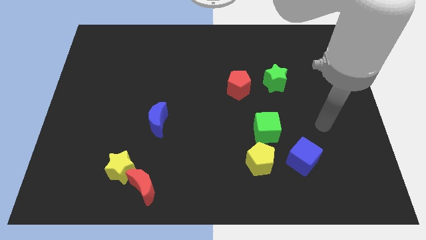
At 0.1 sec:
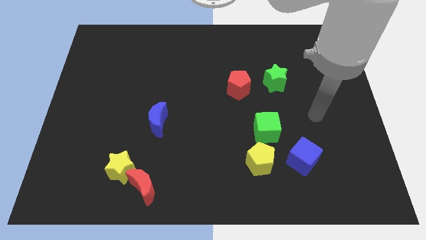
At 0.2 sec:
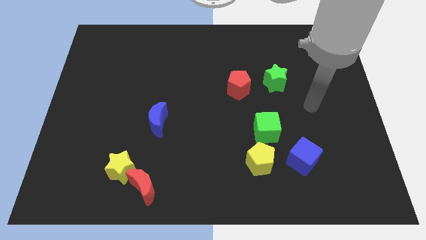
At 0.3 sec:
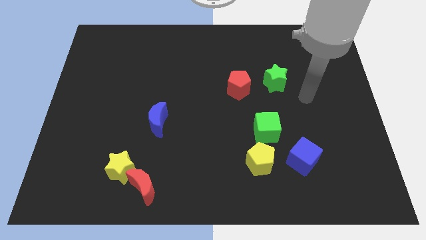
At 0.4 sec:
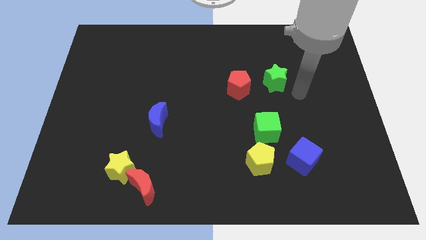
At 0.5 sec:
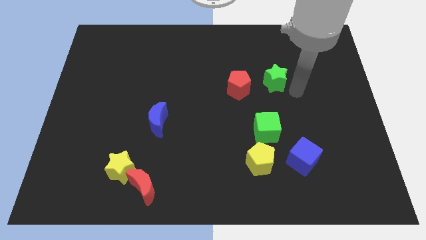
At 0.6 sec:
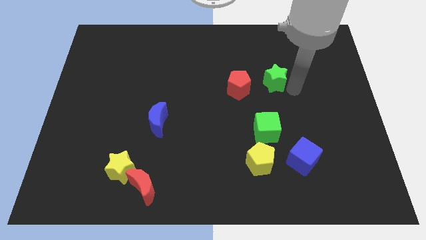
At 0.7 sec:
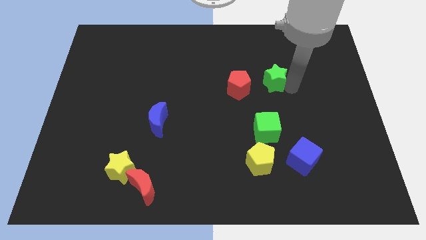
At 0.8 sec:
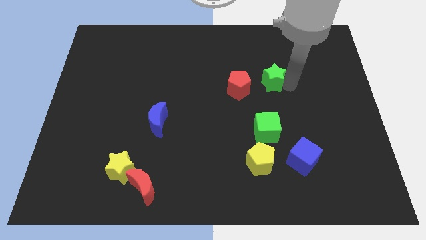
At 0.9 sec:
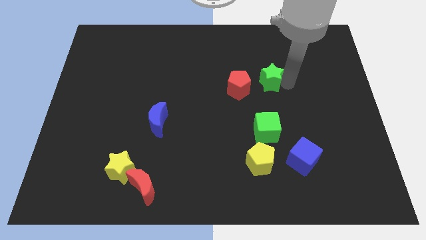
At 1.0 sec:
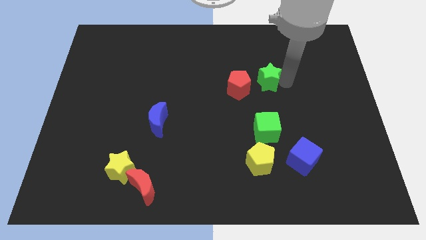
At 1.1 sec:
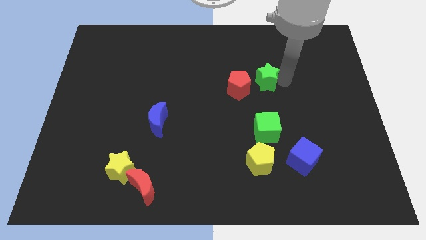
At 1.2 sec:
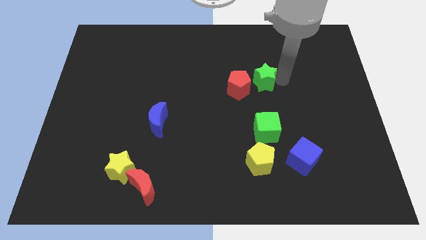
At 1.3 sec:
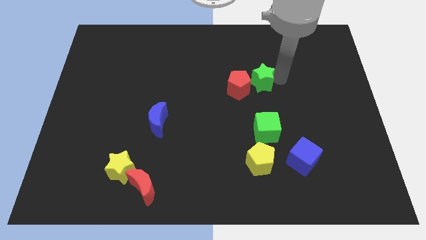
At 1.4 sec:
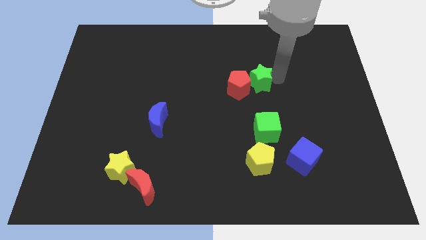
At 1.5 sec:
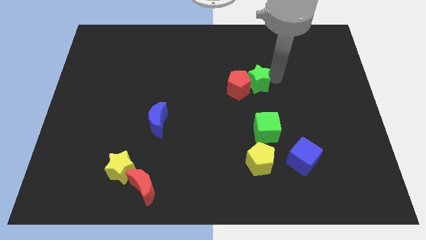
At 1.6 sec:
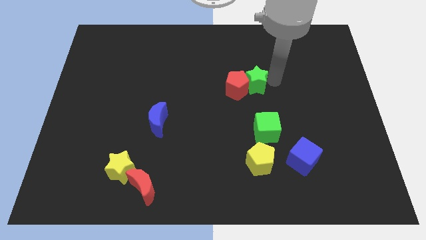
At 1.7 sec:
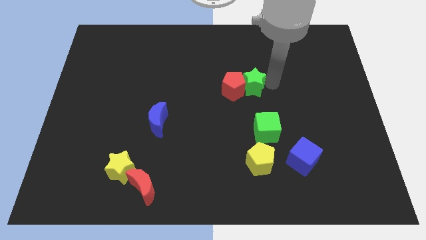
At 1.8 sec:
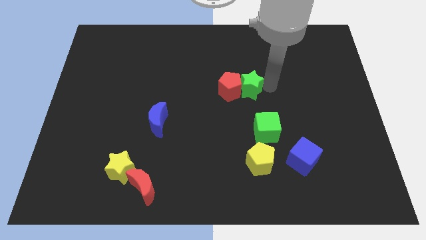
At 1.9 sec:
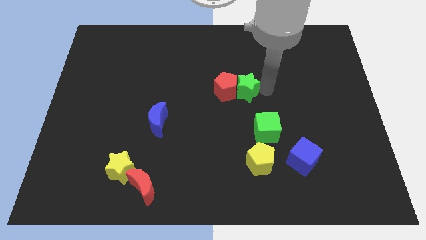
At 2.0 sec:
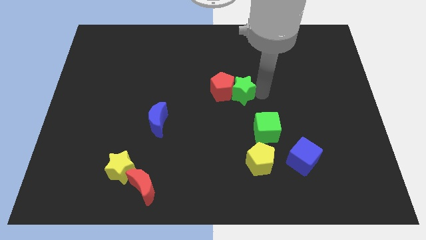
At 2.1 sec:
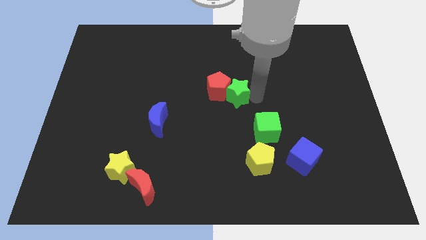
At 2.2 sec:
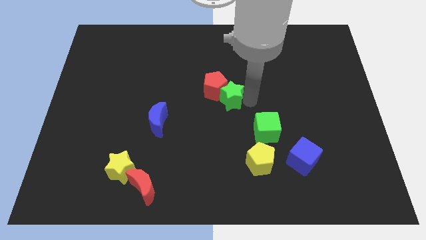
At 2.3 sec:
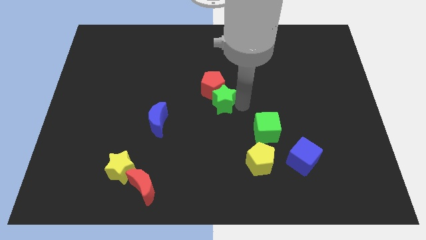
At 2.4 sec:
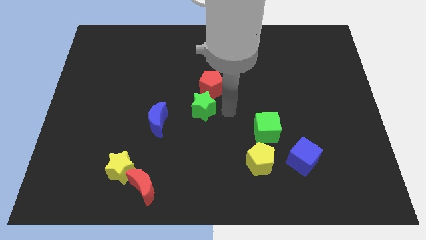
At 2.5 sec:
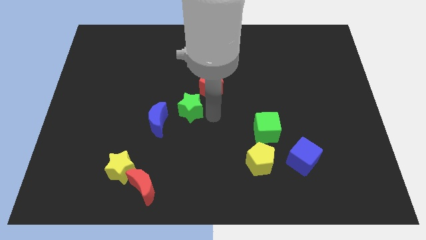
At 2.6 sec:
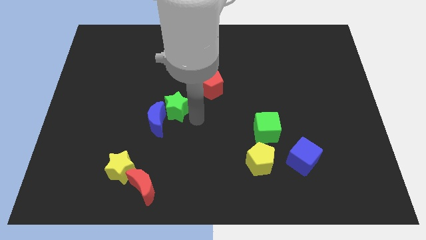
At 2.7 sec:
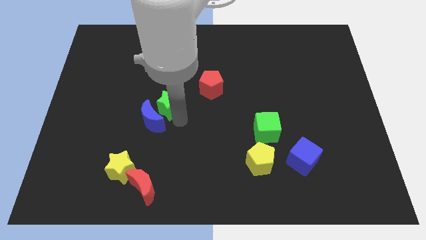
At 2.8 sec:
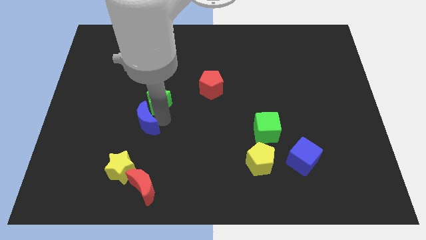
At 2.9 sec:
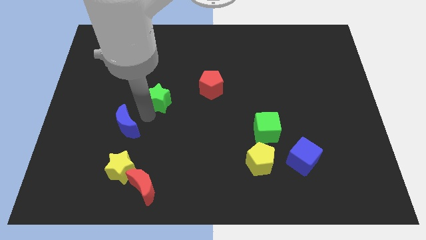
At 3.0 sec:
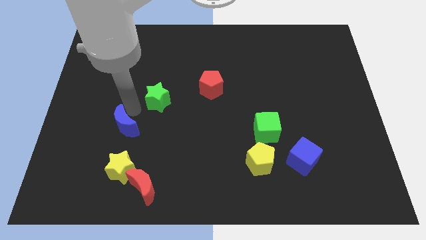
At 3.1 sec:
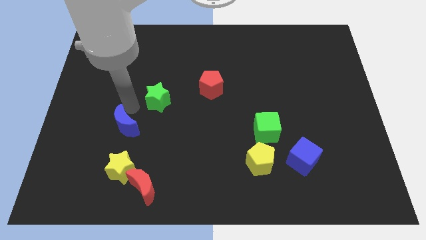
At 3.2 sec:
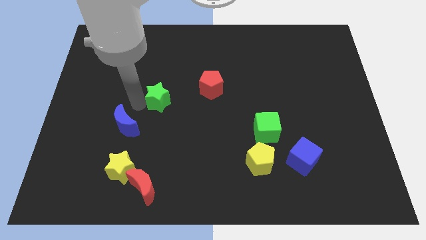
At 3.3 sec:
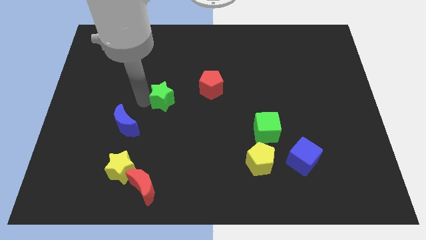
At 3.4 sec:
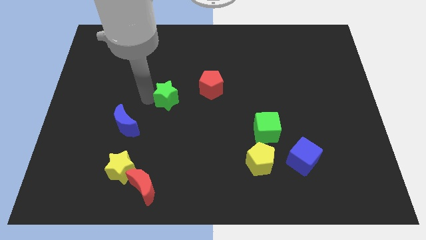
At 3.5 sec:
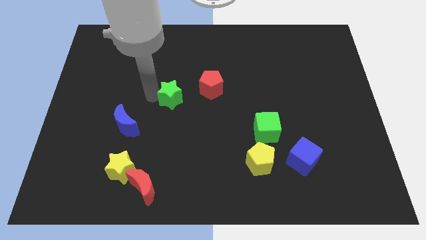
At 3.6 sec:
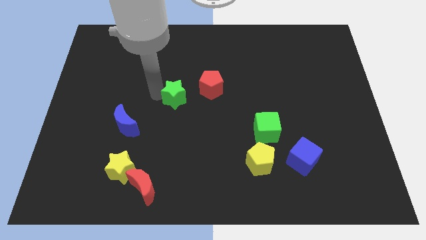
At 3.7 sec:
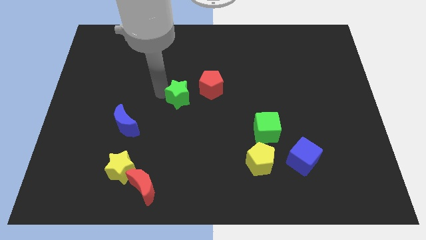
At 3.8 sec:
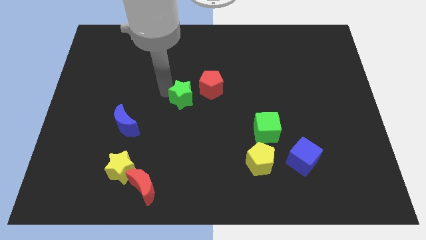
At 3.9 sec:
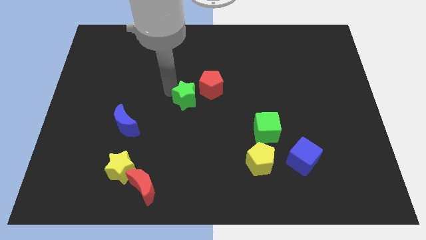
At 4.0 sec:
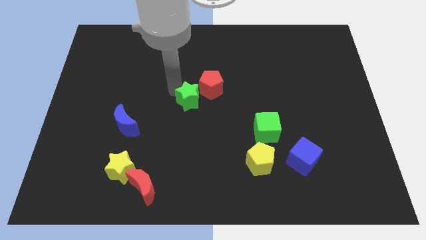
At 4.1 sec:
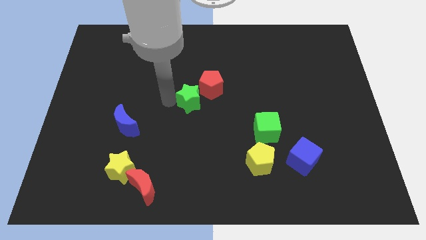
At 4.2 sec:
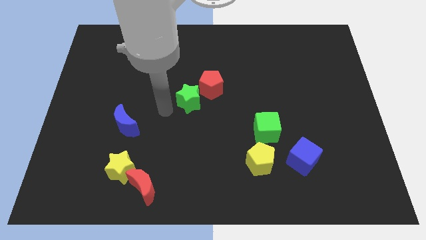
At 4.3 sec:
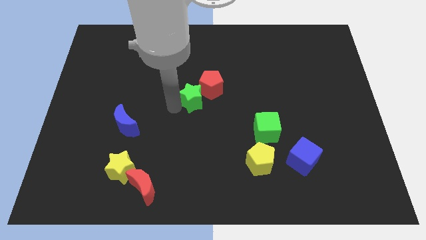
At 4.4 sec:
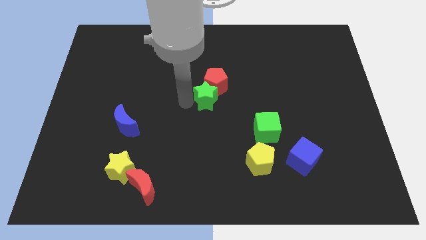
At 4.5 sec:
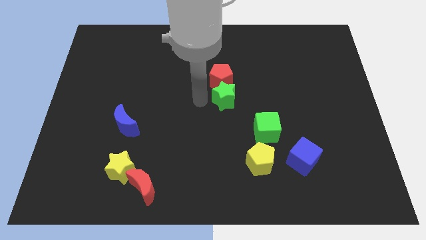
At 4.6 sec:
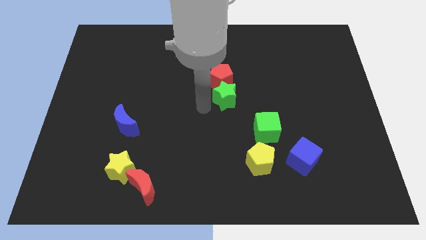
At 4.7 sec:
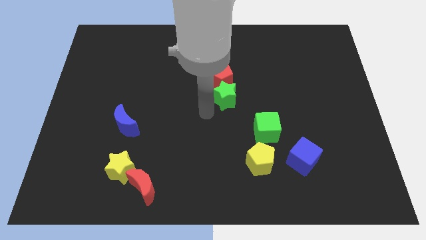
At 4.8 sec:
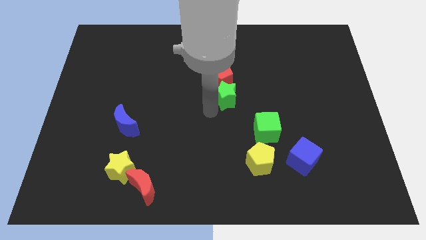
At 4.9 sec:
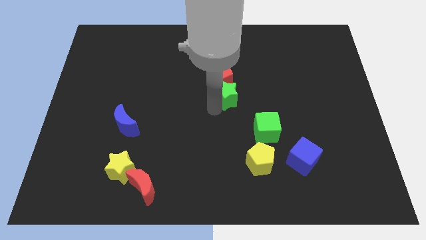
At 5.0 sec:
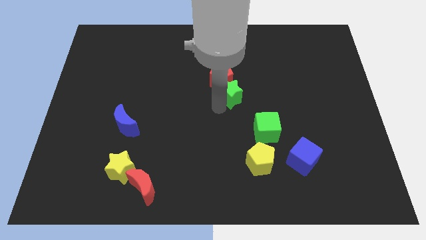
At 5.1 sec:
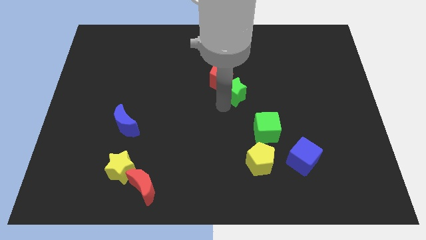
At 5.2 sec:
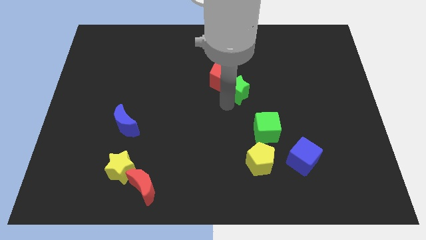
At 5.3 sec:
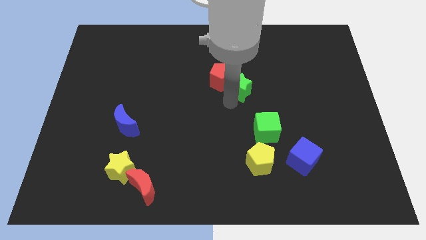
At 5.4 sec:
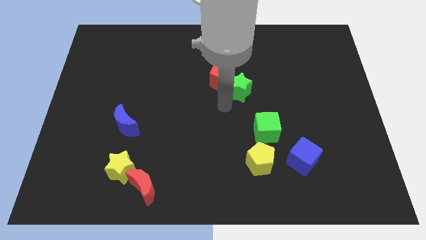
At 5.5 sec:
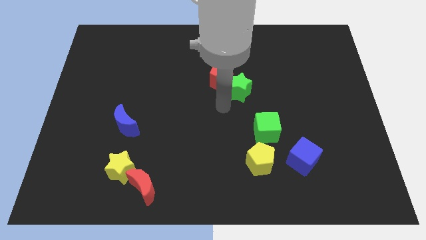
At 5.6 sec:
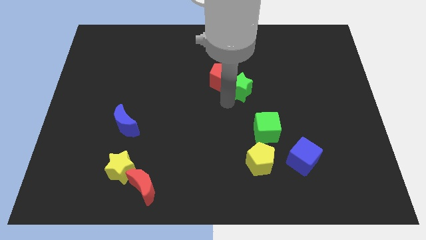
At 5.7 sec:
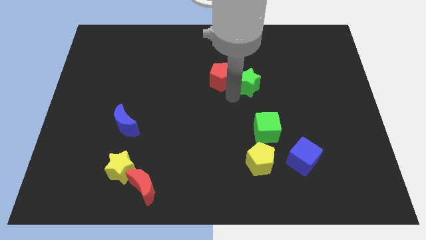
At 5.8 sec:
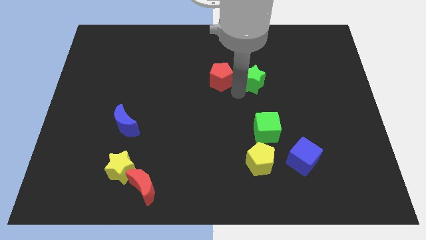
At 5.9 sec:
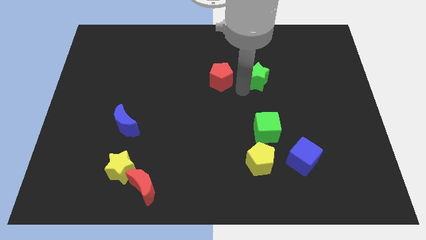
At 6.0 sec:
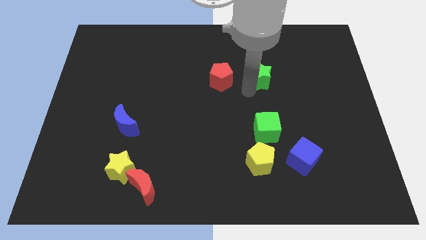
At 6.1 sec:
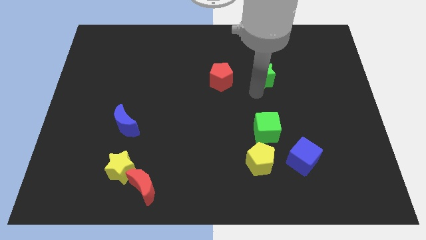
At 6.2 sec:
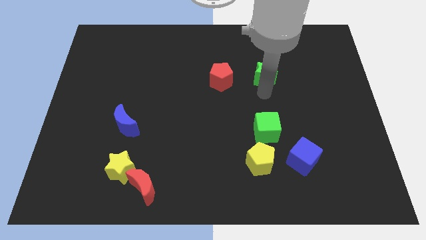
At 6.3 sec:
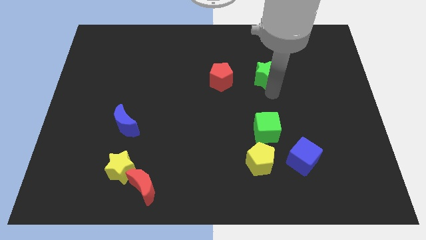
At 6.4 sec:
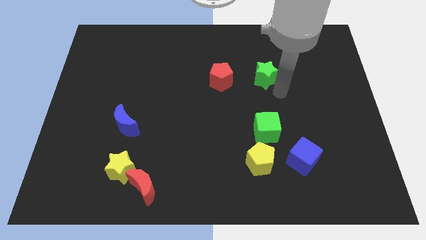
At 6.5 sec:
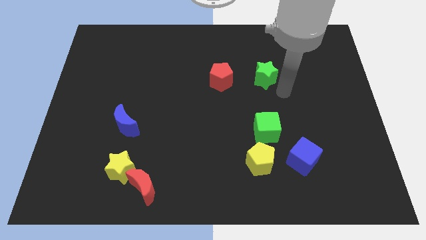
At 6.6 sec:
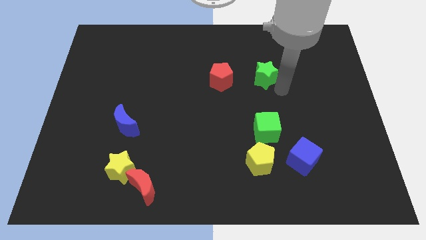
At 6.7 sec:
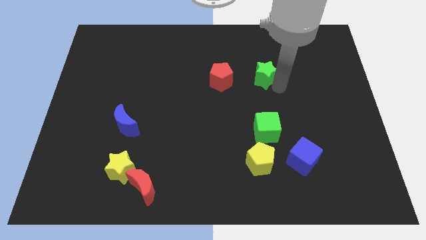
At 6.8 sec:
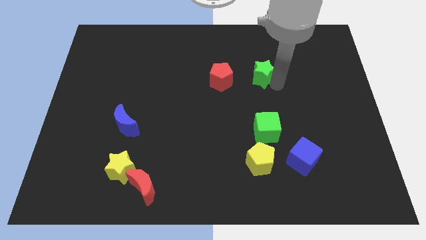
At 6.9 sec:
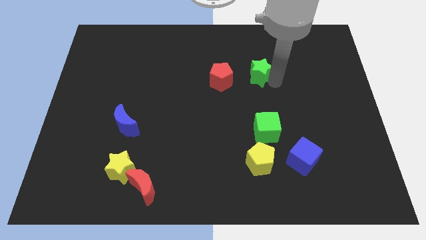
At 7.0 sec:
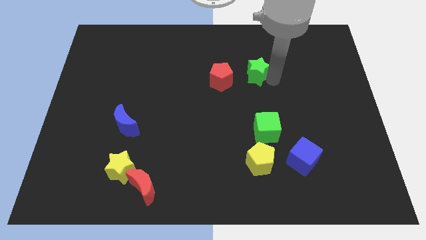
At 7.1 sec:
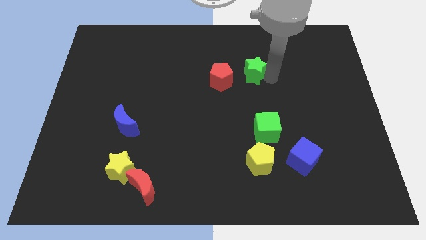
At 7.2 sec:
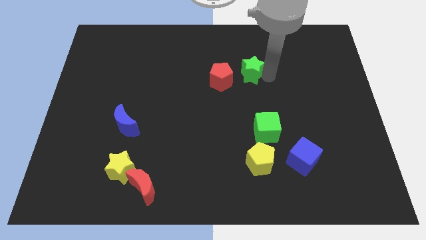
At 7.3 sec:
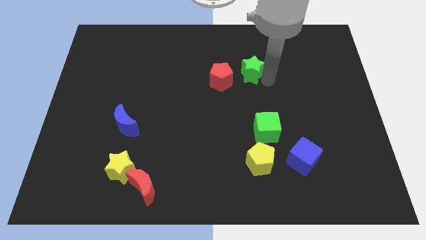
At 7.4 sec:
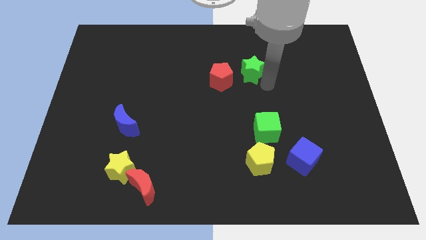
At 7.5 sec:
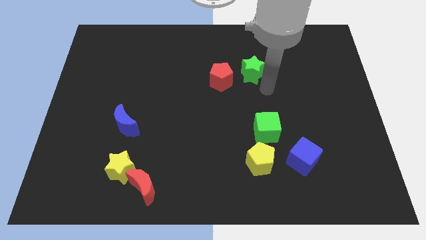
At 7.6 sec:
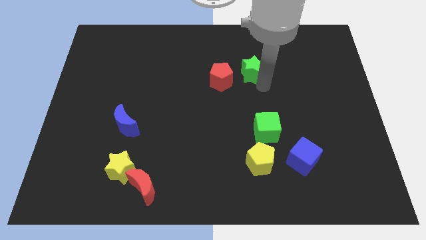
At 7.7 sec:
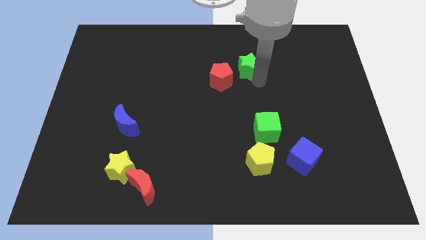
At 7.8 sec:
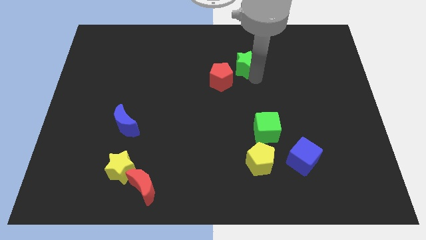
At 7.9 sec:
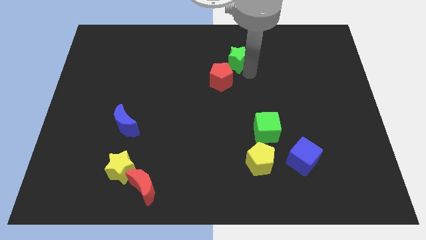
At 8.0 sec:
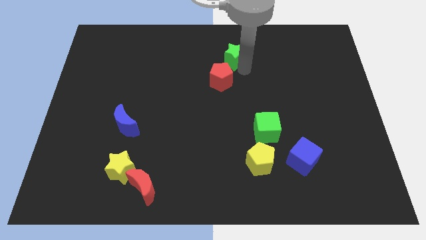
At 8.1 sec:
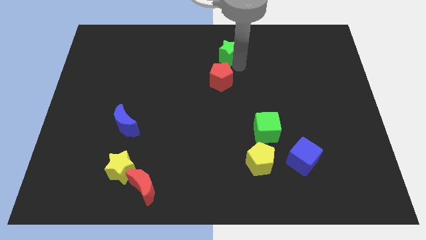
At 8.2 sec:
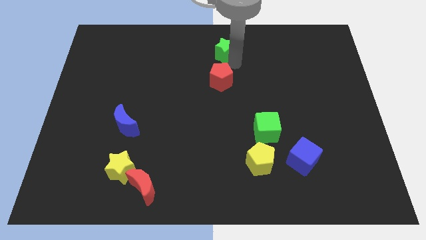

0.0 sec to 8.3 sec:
put the green star to the top side
